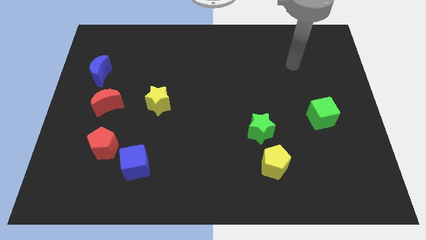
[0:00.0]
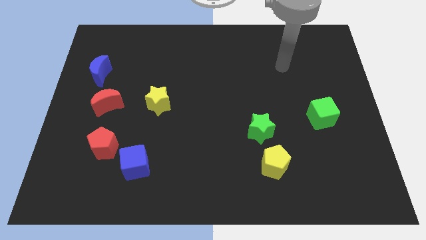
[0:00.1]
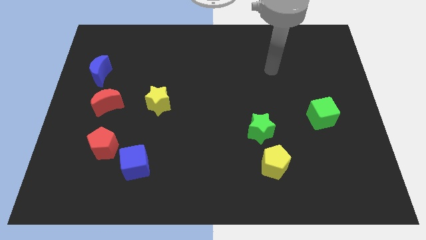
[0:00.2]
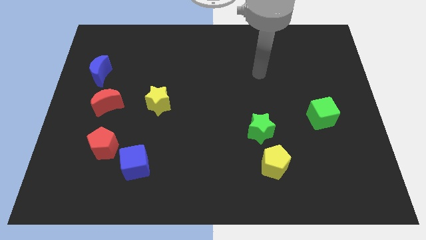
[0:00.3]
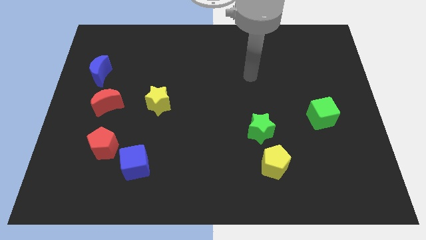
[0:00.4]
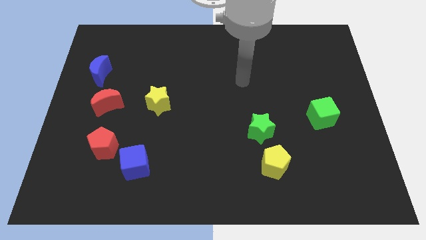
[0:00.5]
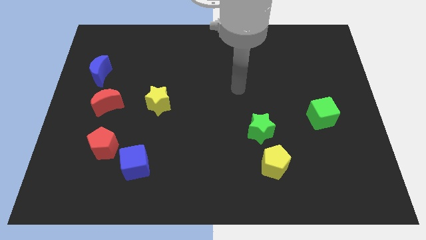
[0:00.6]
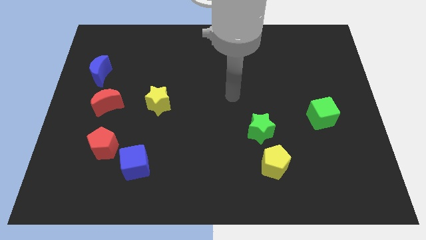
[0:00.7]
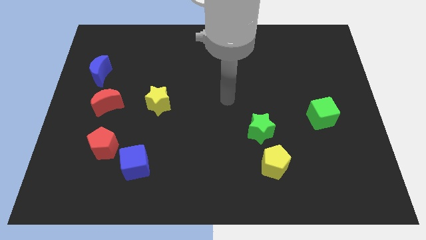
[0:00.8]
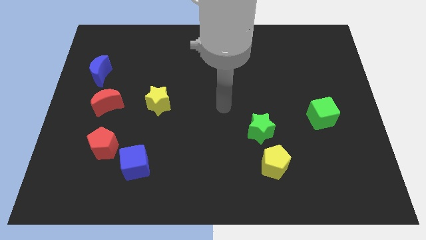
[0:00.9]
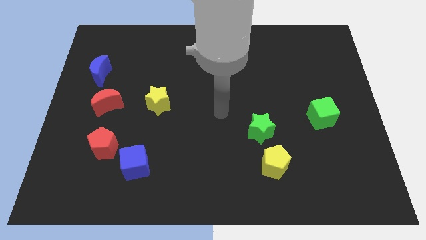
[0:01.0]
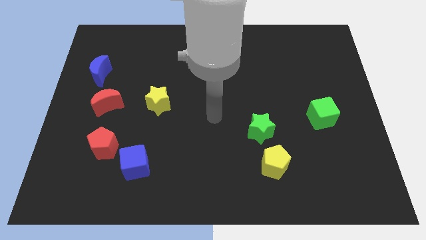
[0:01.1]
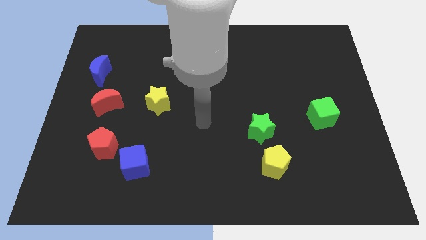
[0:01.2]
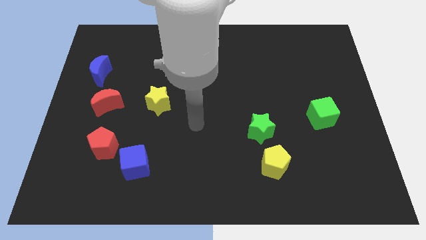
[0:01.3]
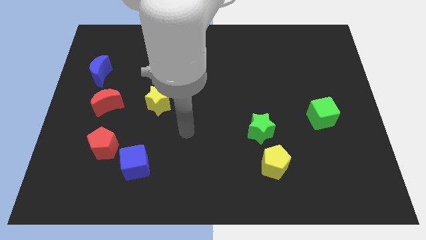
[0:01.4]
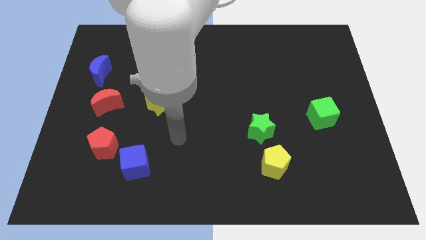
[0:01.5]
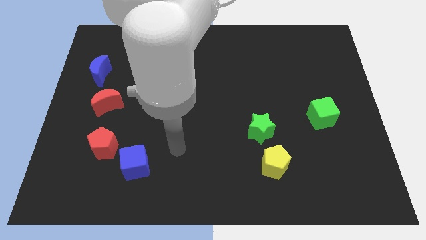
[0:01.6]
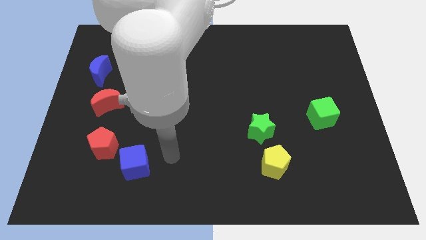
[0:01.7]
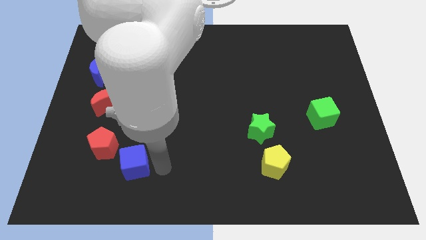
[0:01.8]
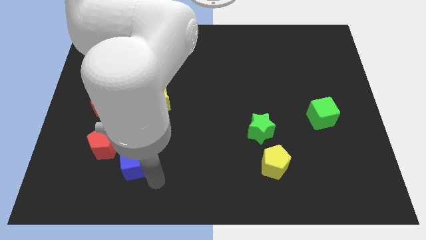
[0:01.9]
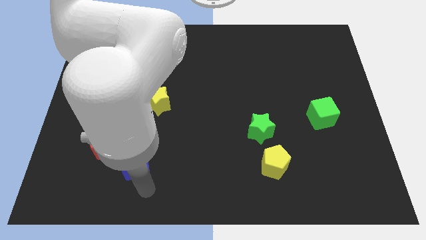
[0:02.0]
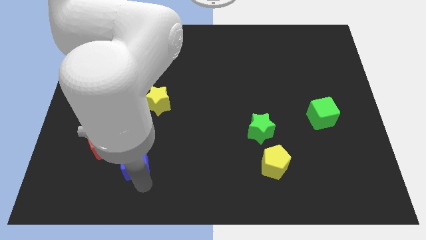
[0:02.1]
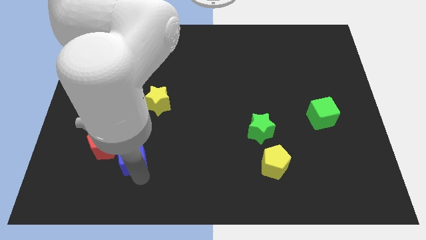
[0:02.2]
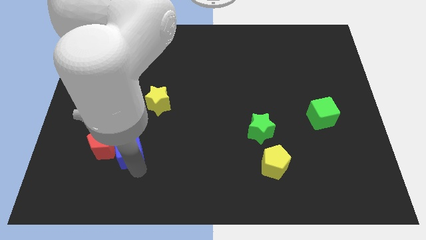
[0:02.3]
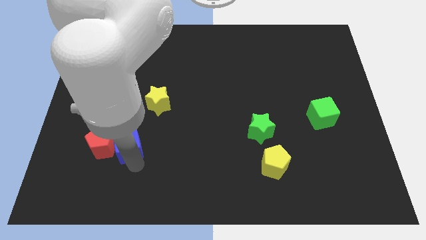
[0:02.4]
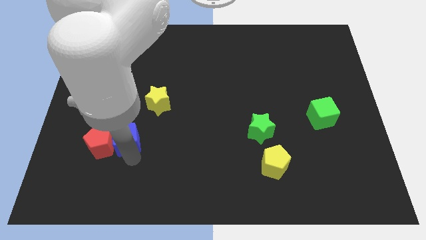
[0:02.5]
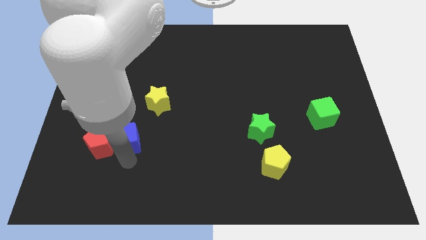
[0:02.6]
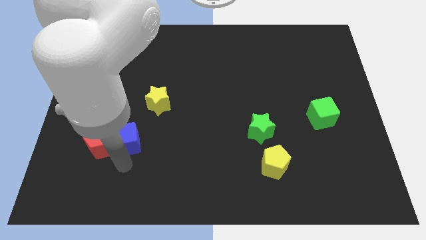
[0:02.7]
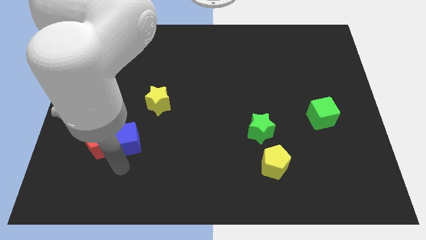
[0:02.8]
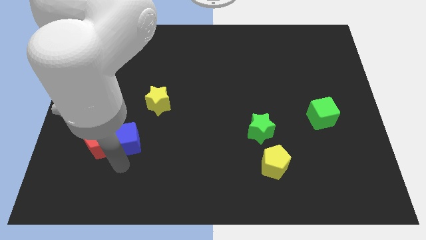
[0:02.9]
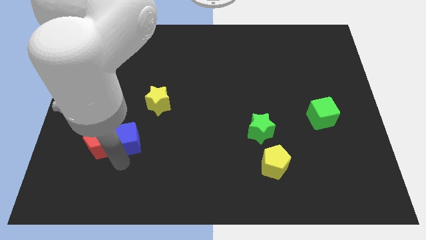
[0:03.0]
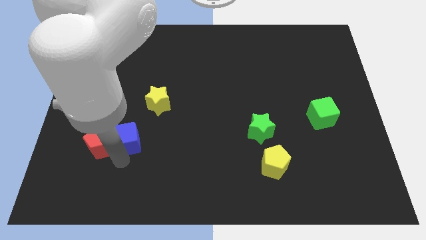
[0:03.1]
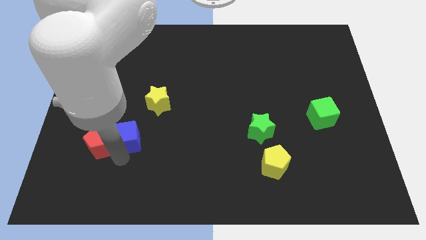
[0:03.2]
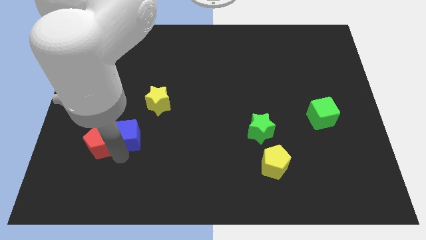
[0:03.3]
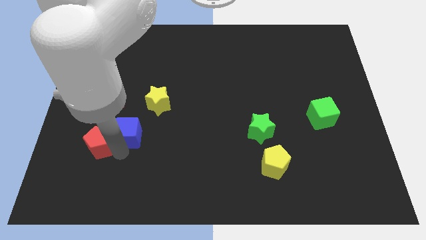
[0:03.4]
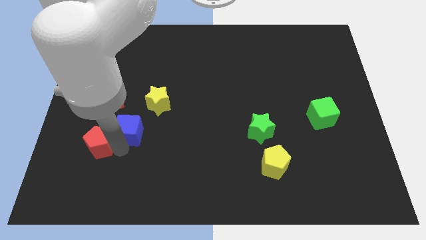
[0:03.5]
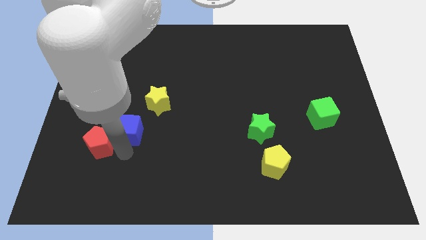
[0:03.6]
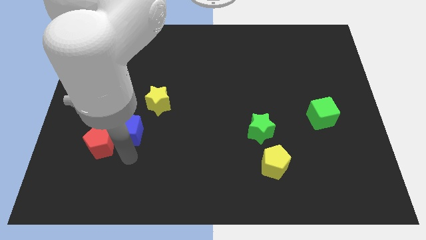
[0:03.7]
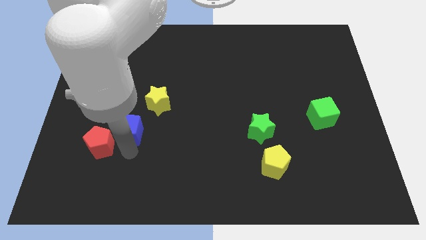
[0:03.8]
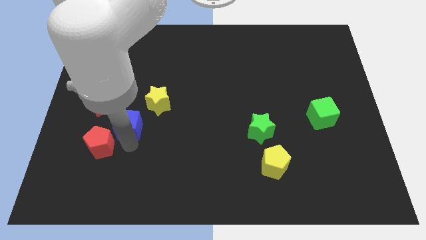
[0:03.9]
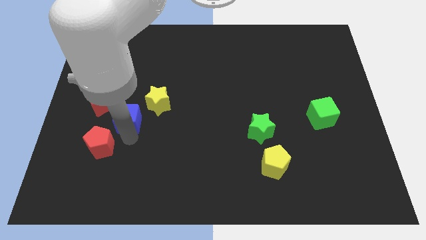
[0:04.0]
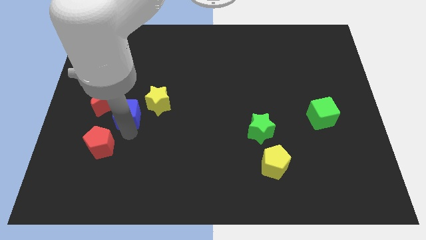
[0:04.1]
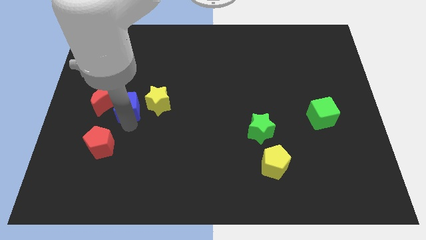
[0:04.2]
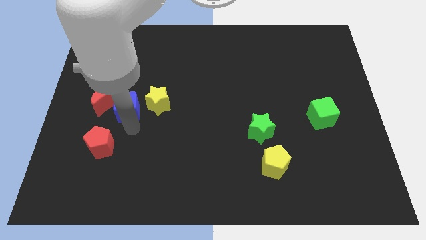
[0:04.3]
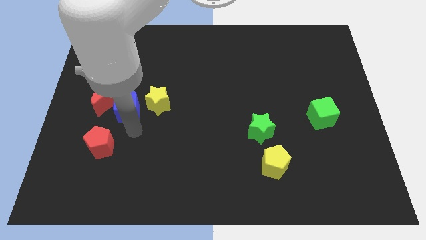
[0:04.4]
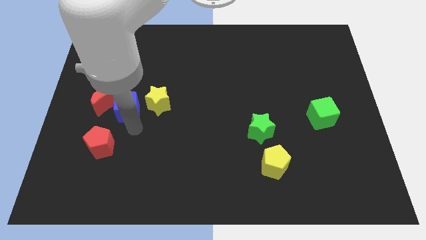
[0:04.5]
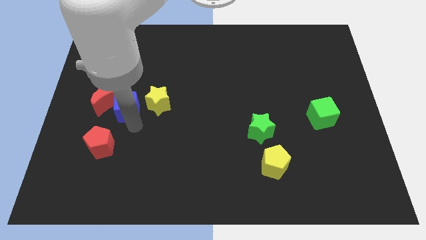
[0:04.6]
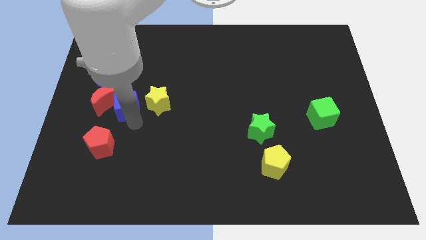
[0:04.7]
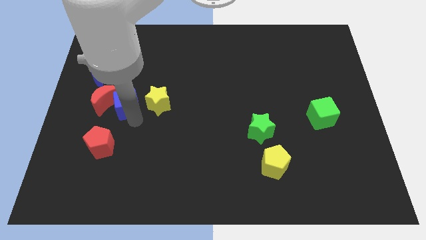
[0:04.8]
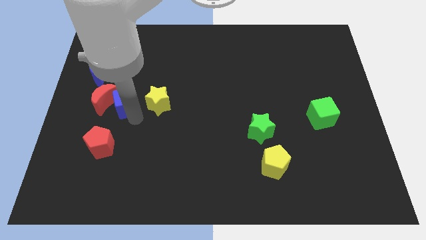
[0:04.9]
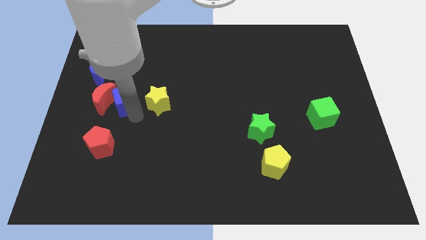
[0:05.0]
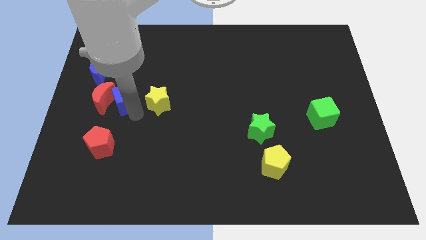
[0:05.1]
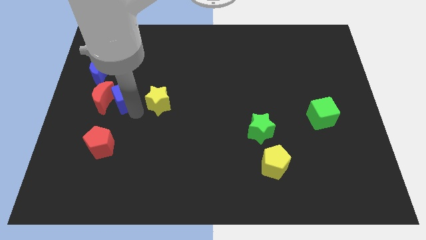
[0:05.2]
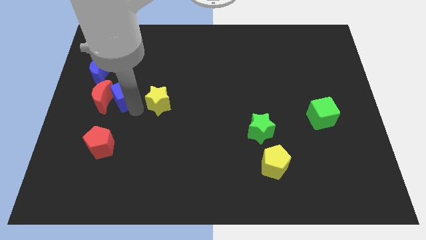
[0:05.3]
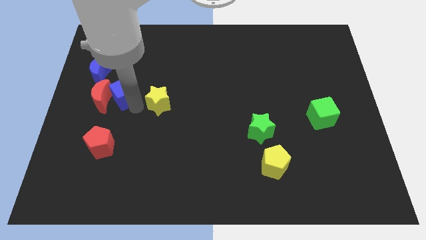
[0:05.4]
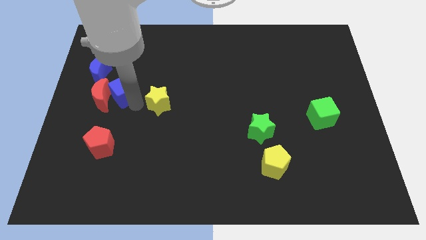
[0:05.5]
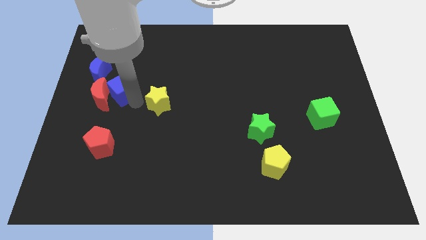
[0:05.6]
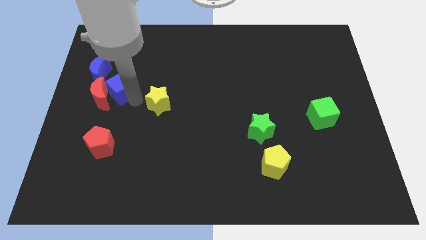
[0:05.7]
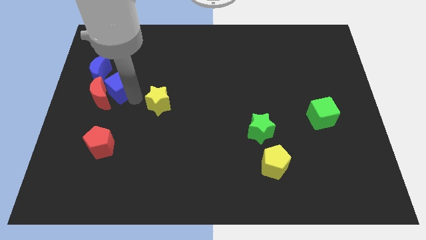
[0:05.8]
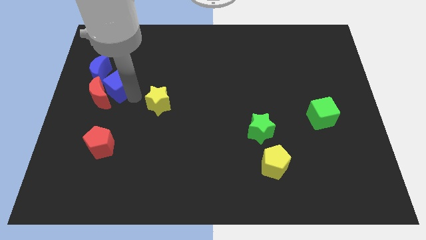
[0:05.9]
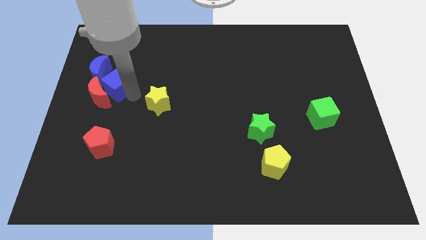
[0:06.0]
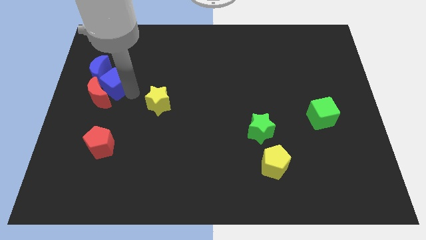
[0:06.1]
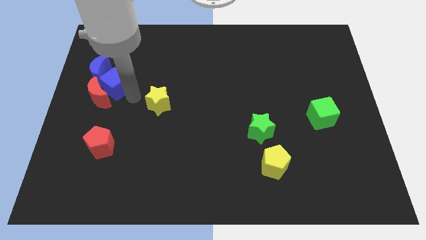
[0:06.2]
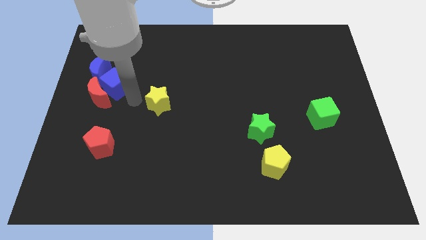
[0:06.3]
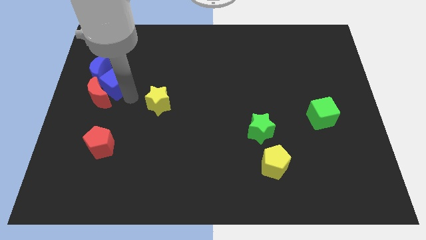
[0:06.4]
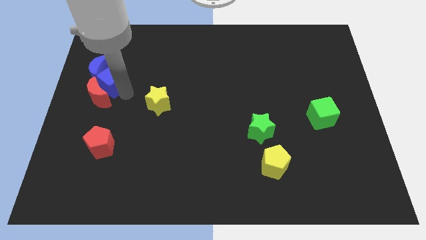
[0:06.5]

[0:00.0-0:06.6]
move the blue cube next to the blue moon

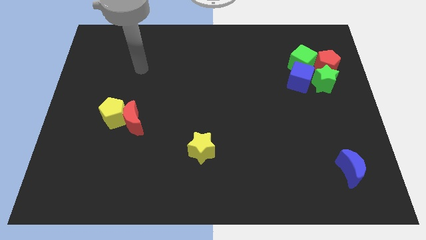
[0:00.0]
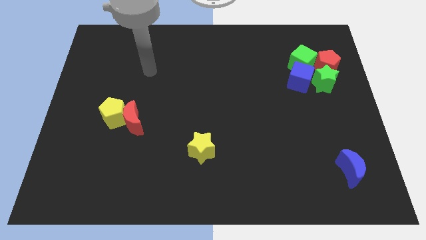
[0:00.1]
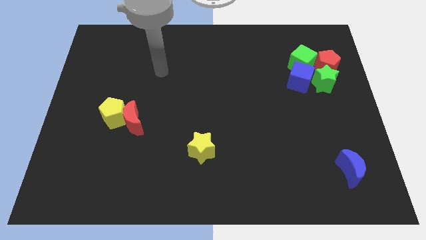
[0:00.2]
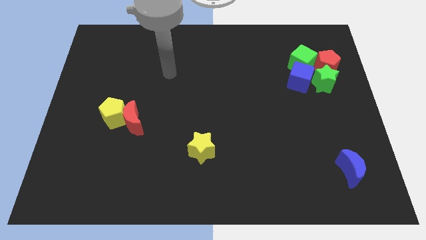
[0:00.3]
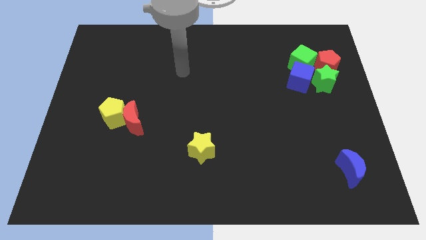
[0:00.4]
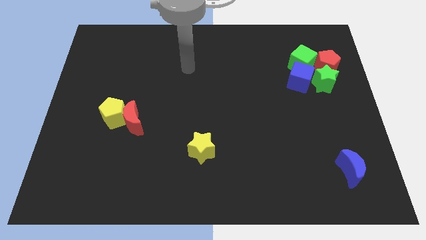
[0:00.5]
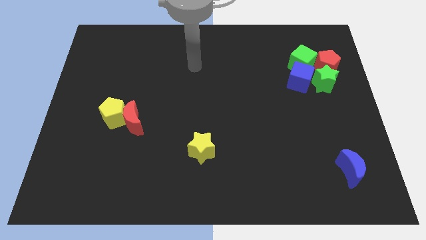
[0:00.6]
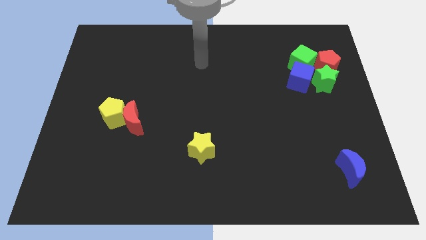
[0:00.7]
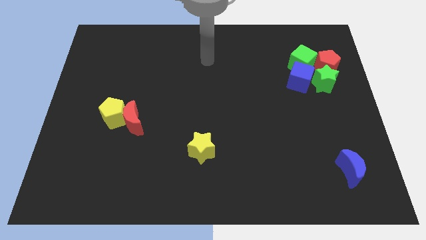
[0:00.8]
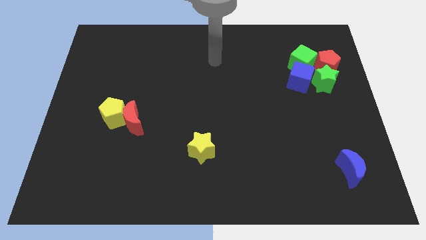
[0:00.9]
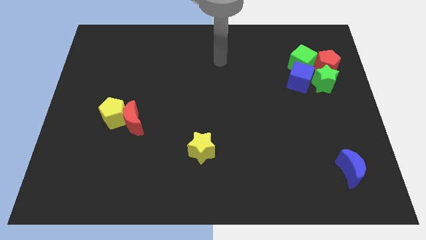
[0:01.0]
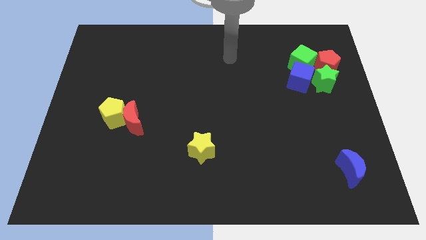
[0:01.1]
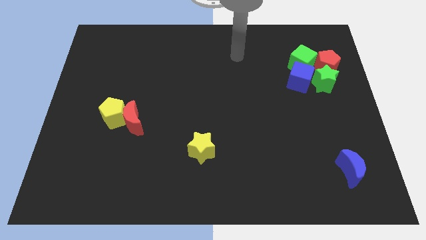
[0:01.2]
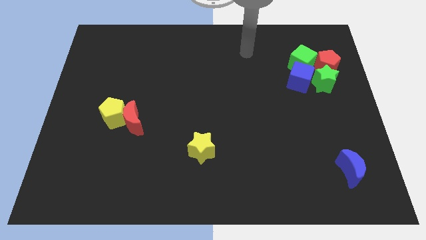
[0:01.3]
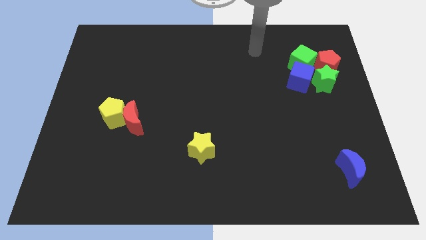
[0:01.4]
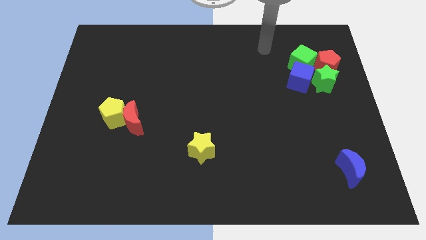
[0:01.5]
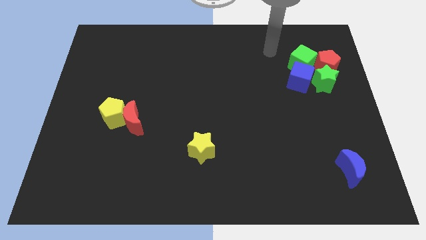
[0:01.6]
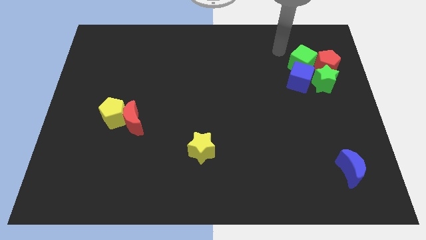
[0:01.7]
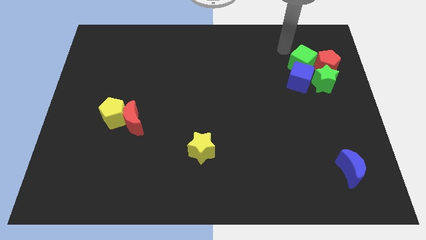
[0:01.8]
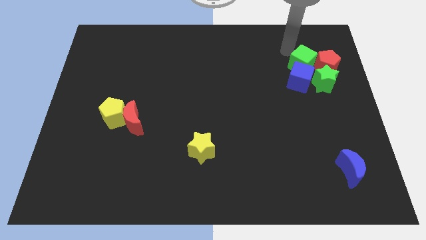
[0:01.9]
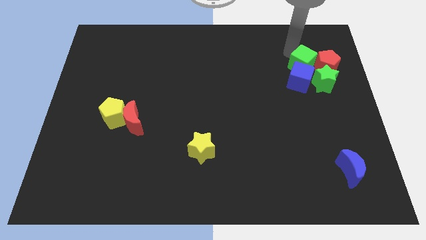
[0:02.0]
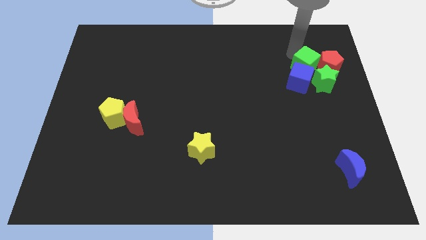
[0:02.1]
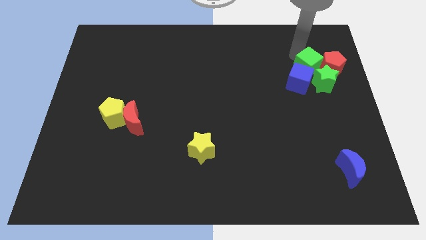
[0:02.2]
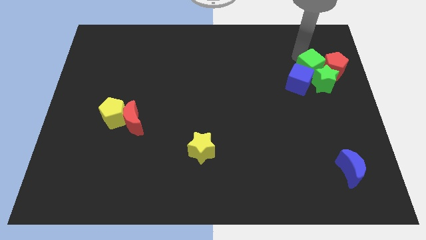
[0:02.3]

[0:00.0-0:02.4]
move the green cube to the green star
